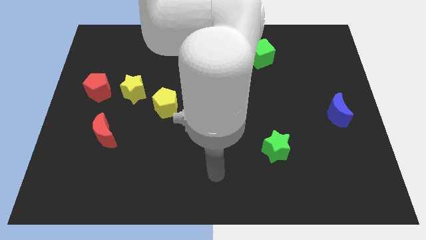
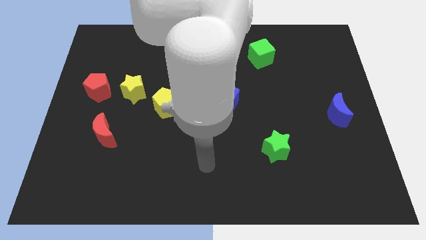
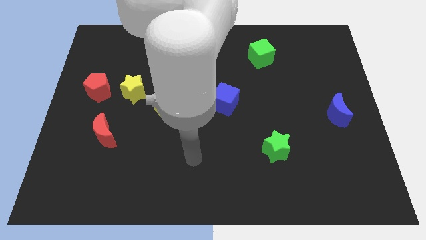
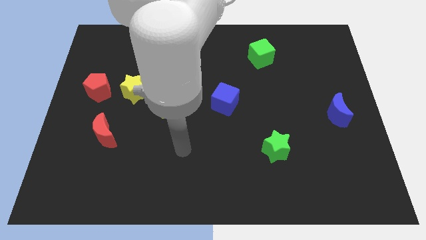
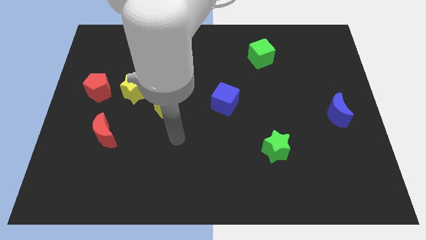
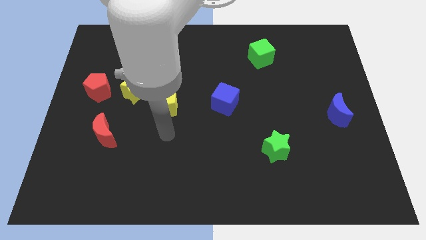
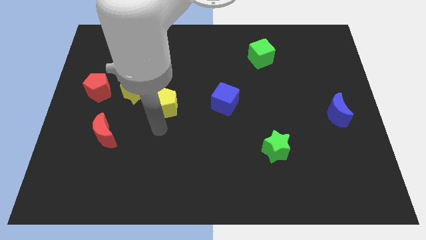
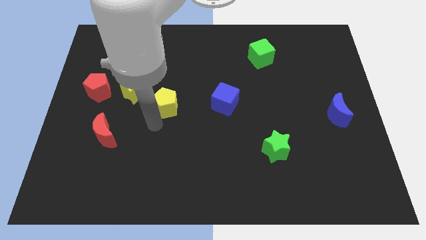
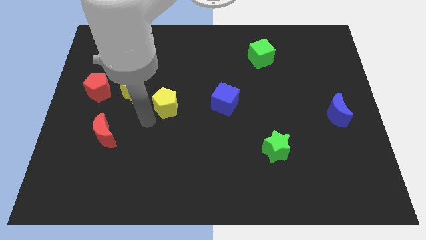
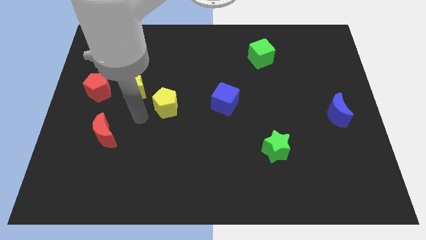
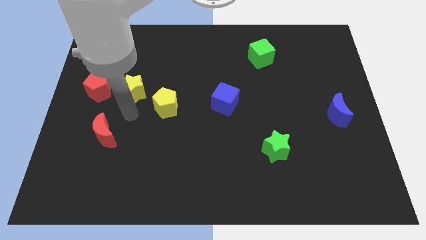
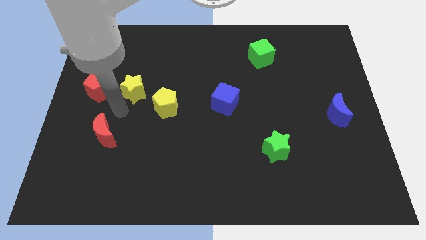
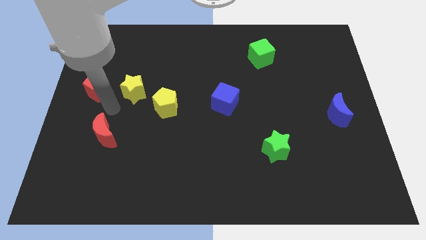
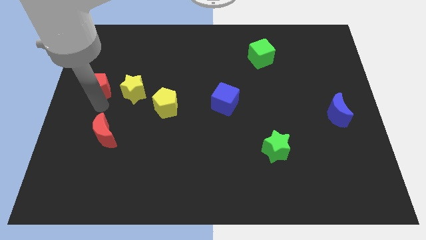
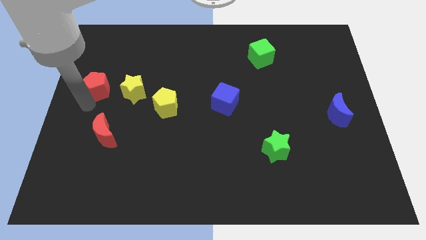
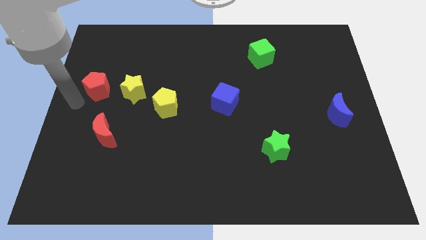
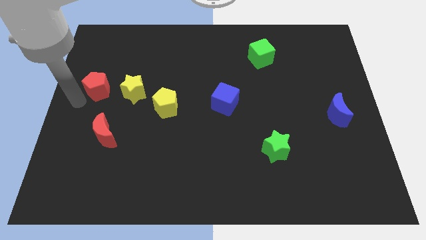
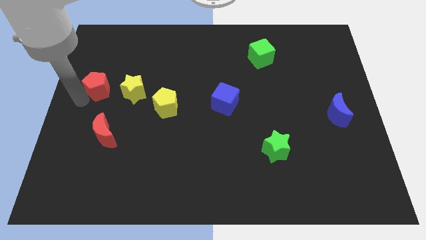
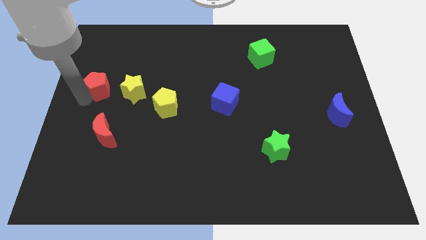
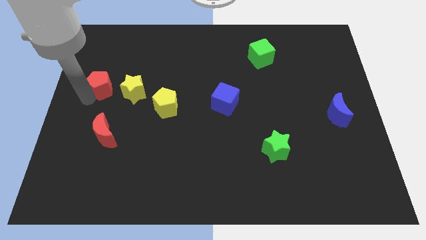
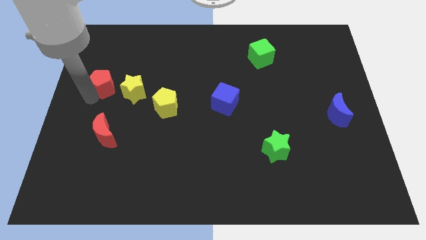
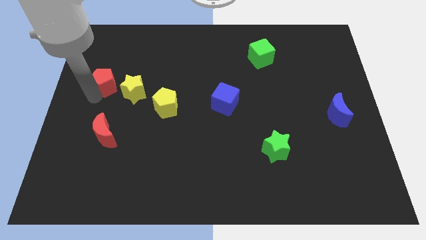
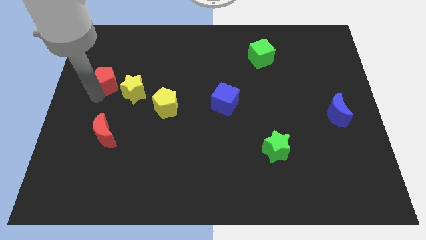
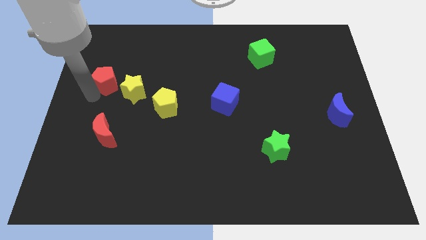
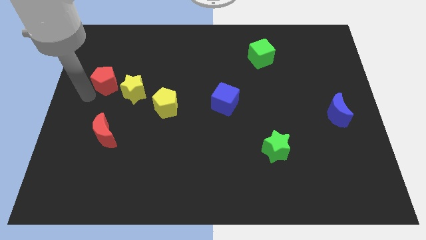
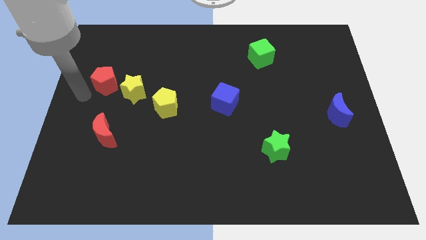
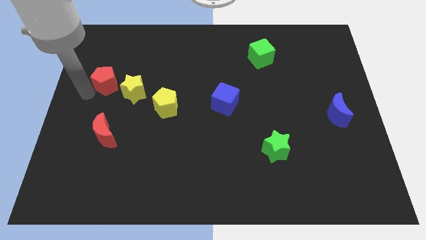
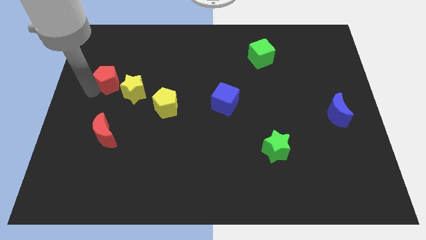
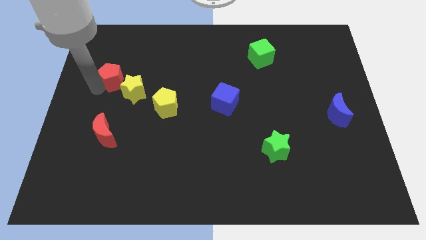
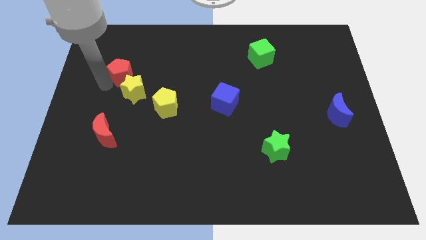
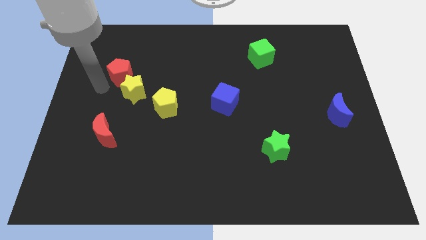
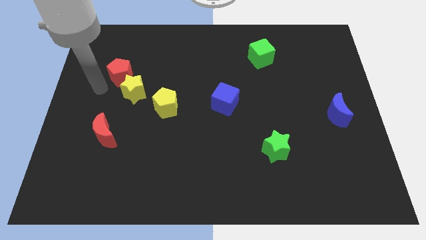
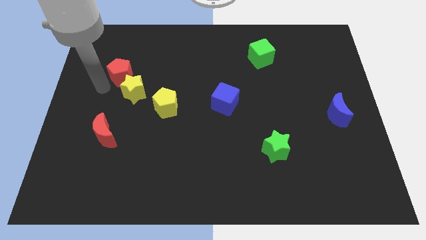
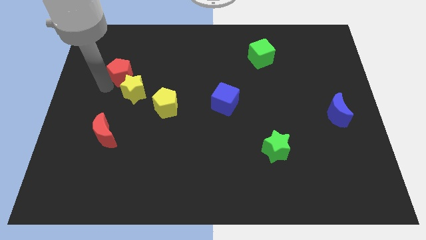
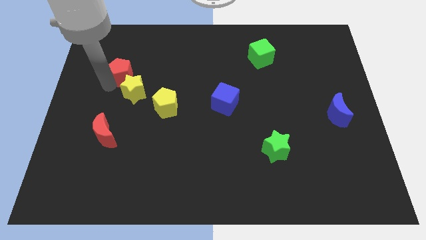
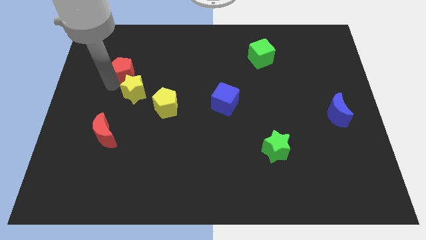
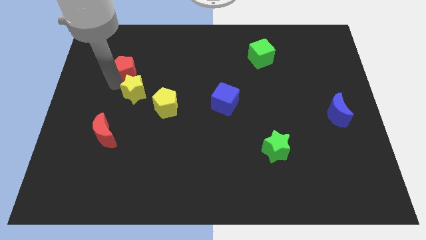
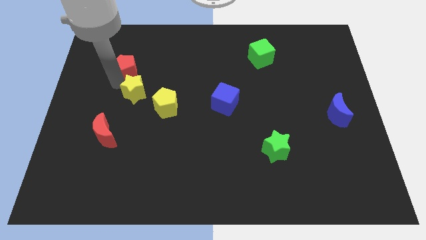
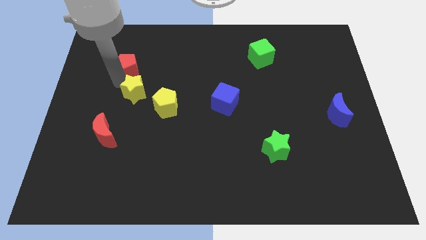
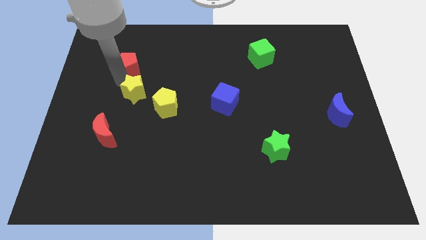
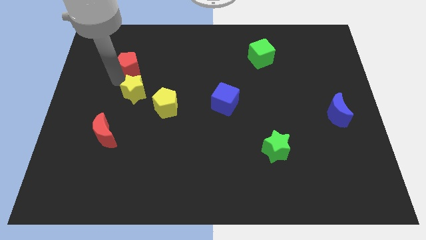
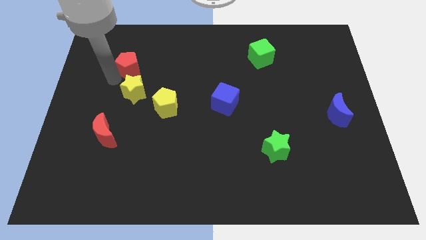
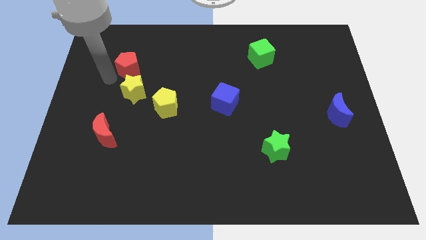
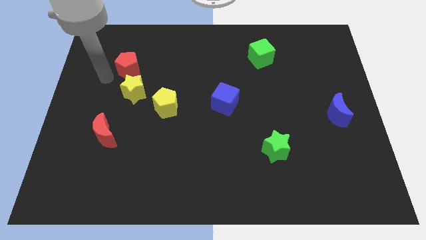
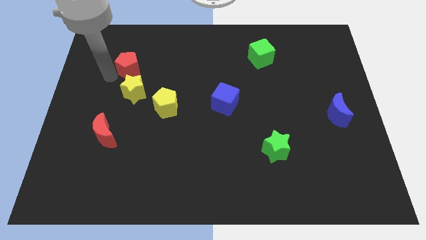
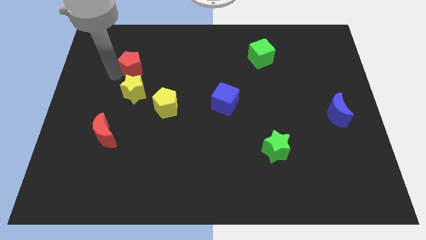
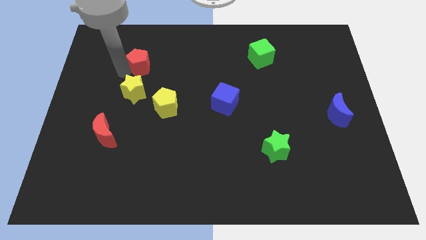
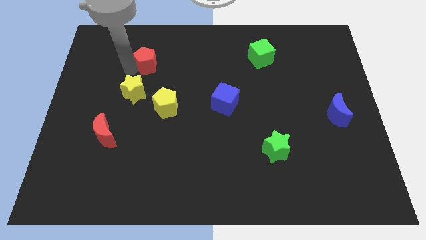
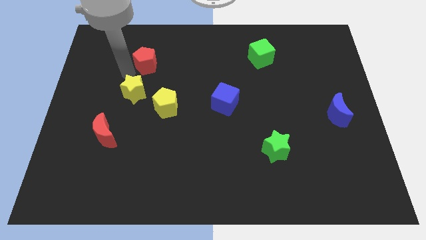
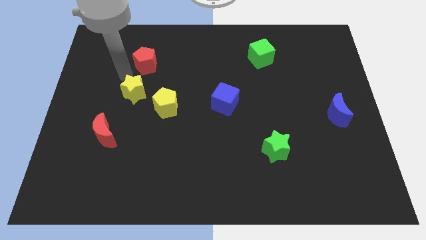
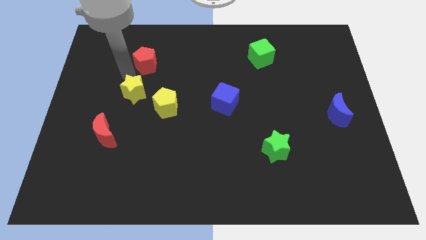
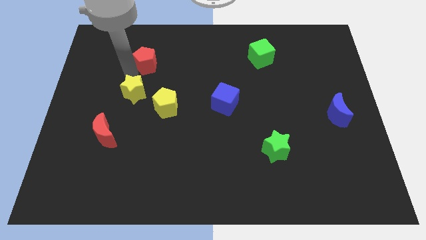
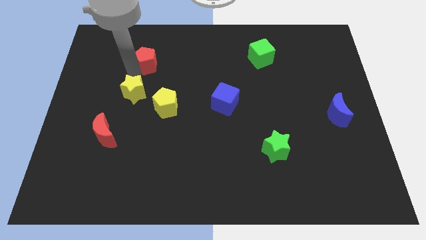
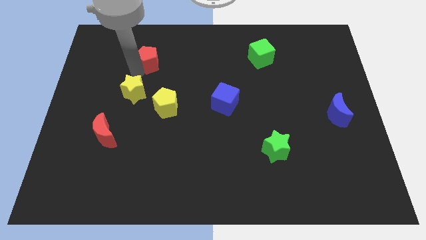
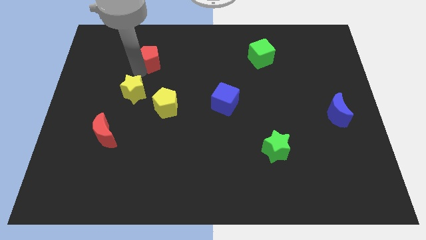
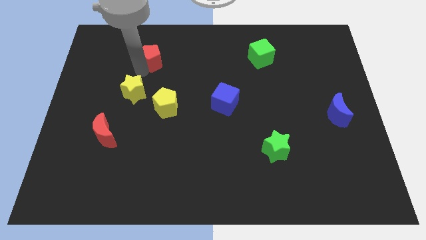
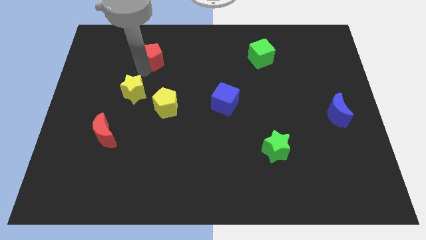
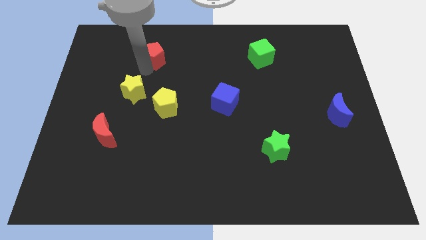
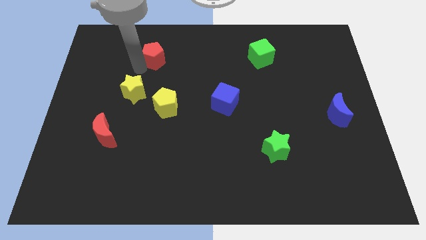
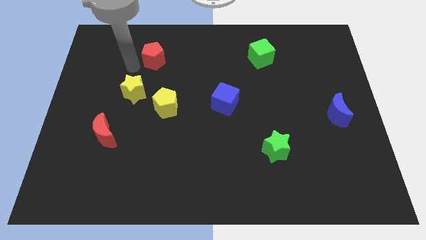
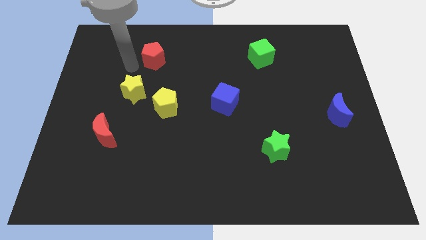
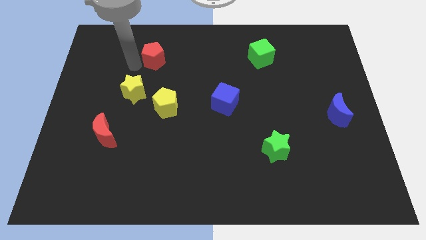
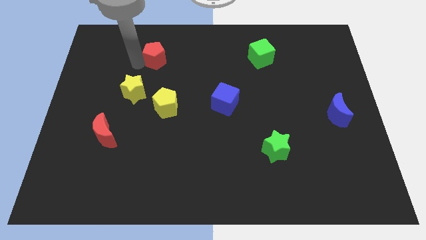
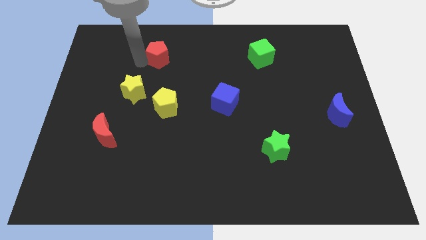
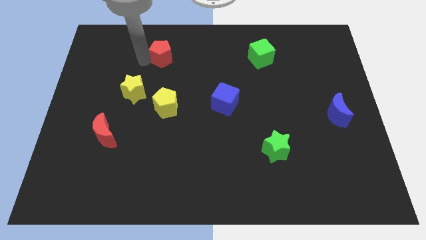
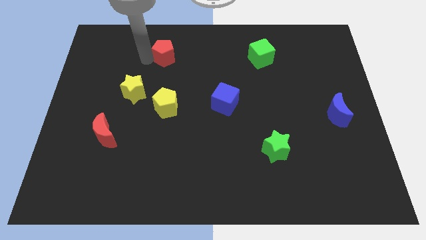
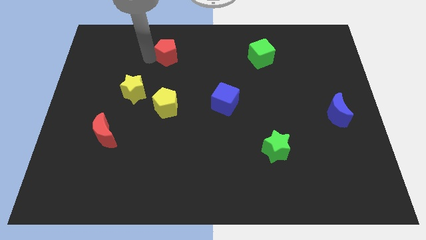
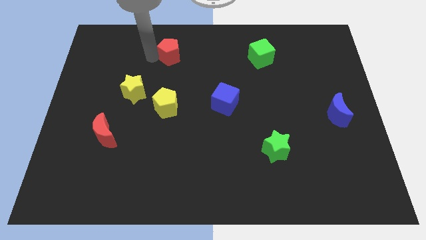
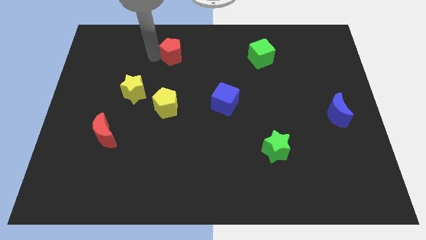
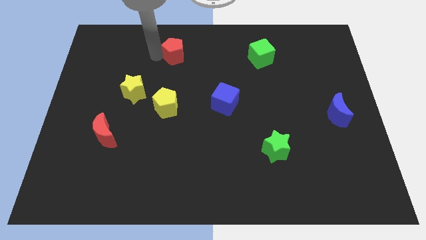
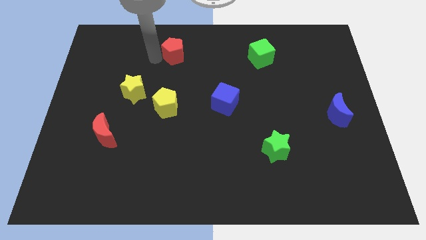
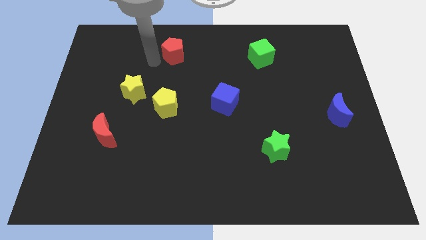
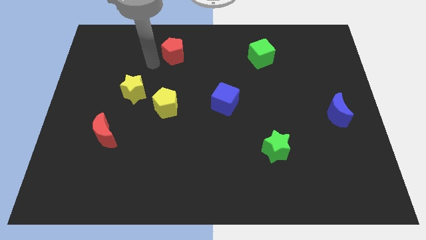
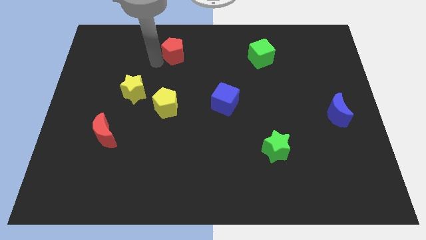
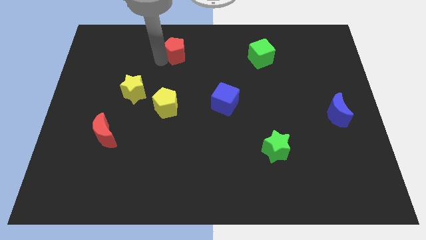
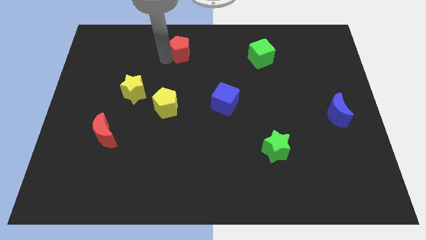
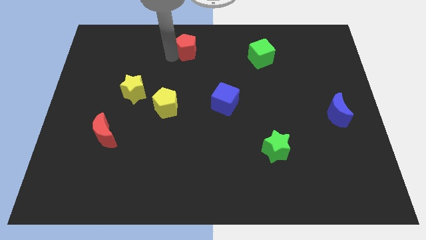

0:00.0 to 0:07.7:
push the red pentagon to the towards your base
